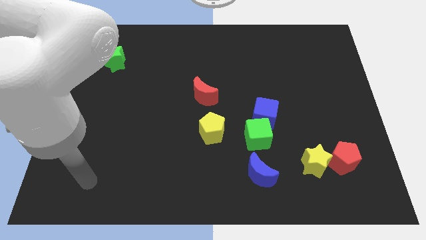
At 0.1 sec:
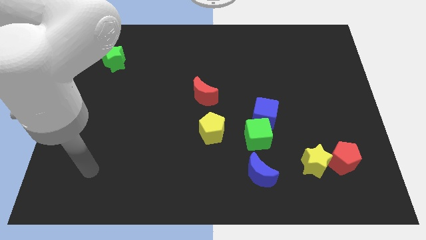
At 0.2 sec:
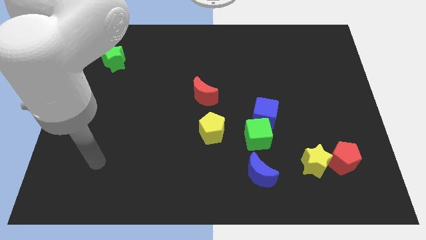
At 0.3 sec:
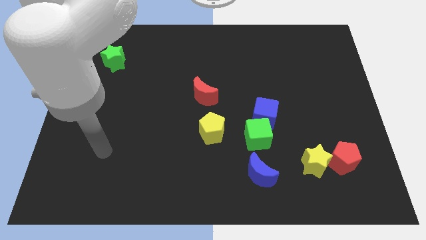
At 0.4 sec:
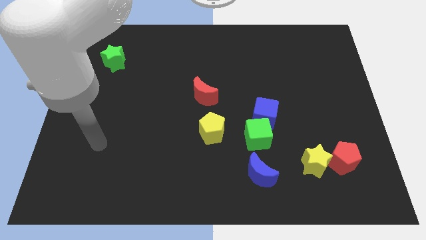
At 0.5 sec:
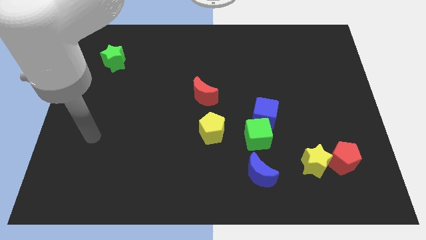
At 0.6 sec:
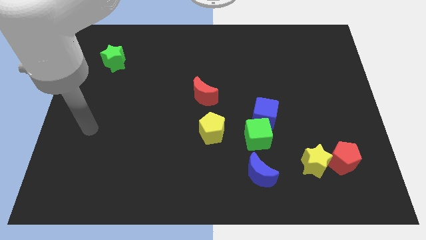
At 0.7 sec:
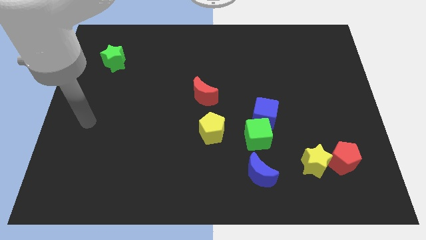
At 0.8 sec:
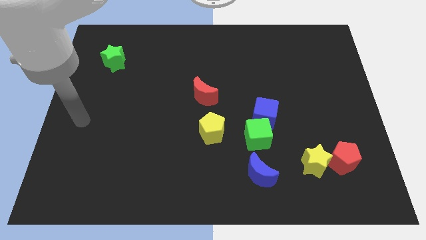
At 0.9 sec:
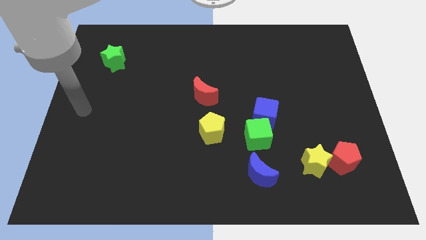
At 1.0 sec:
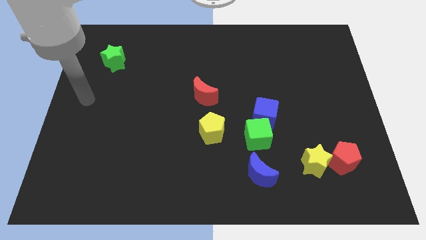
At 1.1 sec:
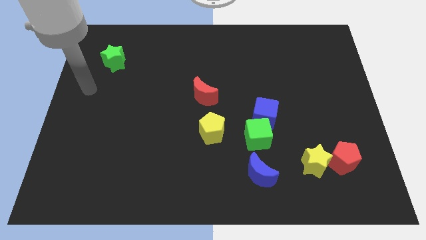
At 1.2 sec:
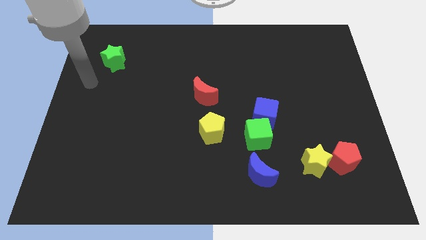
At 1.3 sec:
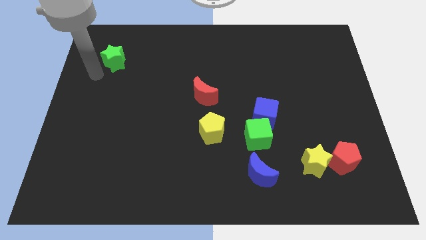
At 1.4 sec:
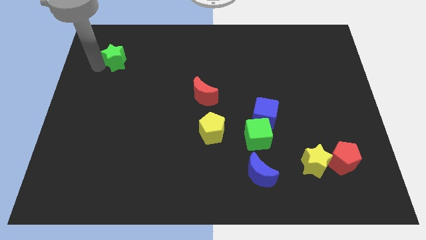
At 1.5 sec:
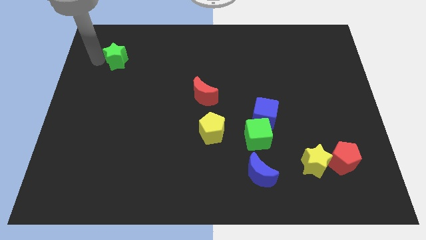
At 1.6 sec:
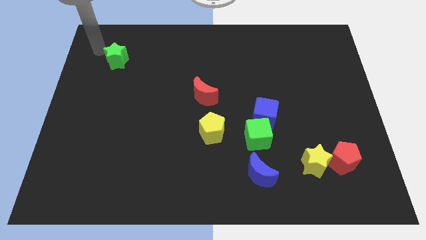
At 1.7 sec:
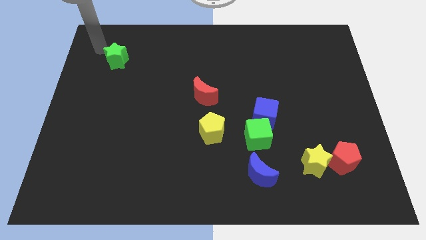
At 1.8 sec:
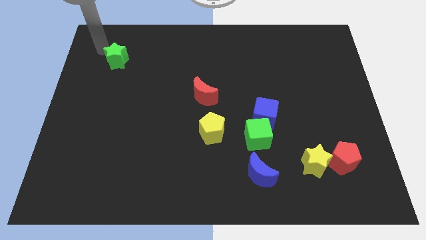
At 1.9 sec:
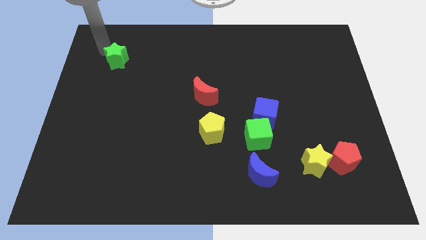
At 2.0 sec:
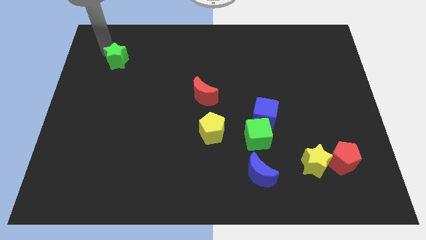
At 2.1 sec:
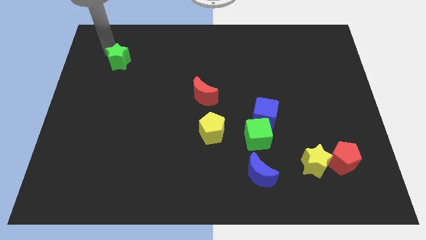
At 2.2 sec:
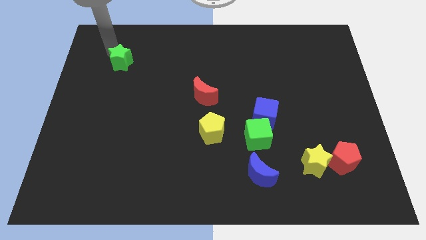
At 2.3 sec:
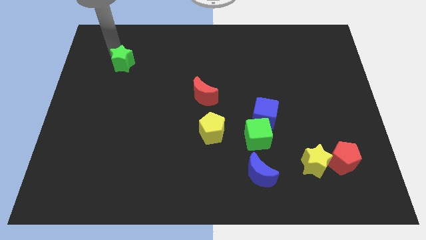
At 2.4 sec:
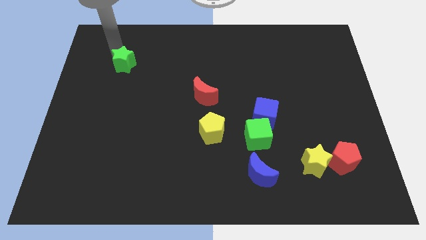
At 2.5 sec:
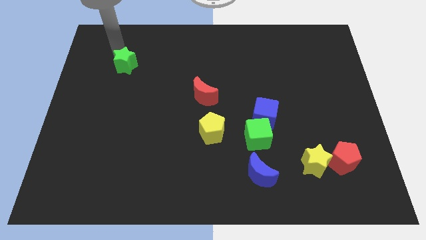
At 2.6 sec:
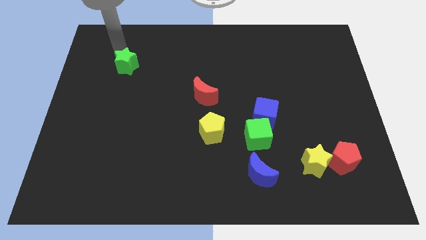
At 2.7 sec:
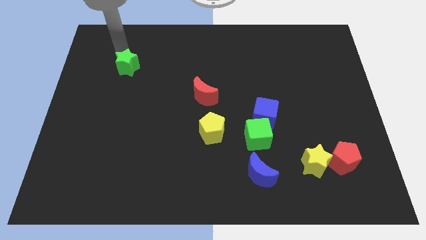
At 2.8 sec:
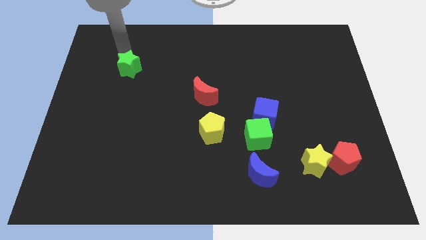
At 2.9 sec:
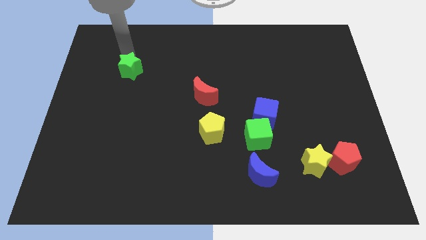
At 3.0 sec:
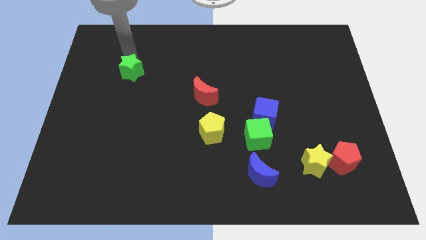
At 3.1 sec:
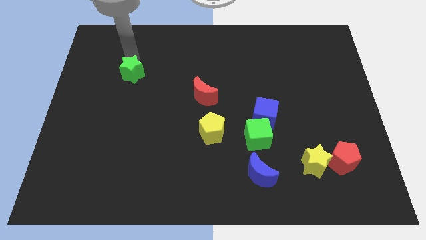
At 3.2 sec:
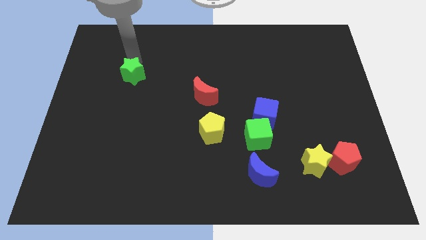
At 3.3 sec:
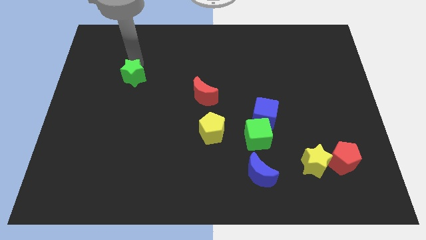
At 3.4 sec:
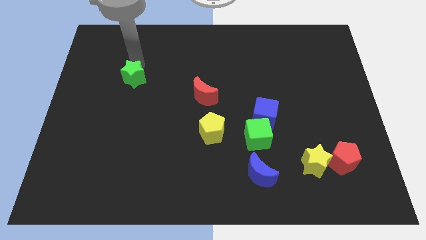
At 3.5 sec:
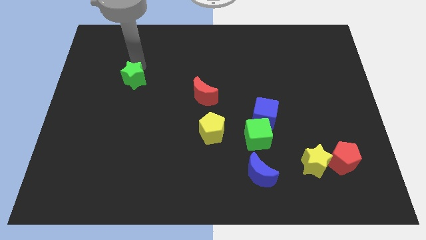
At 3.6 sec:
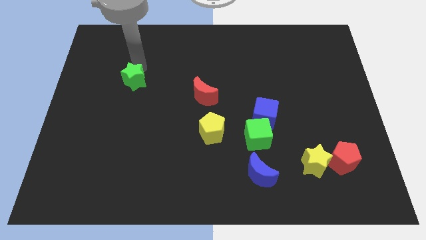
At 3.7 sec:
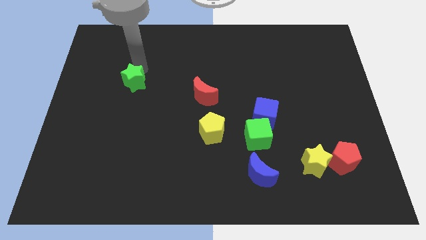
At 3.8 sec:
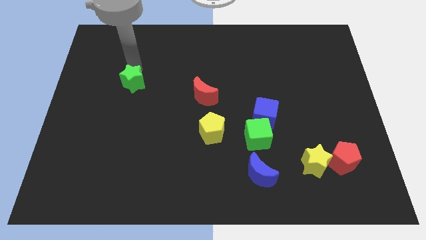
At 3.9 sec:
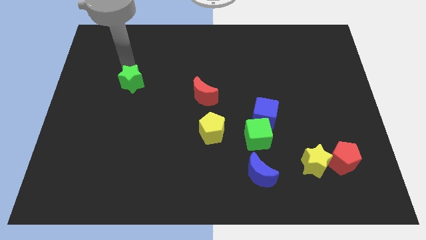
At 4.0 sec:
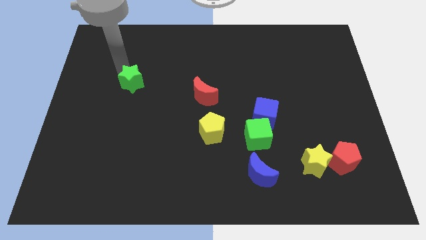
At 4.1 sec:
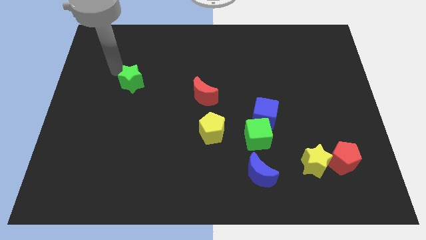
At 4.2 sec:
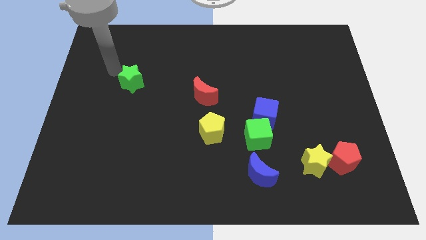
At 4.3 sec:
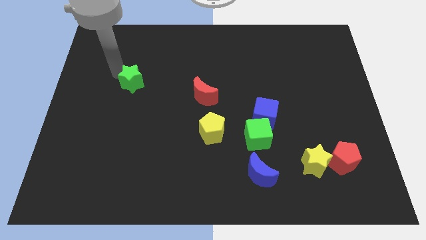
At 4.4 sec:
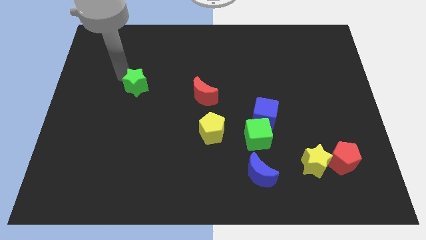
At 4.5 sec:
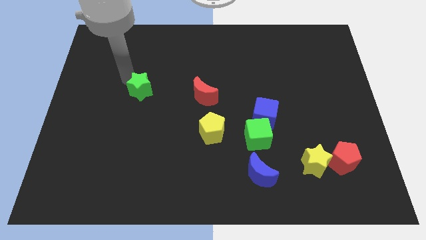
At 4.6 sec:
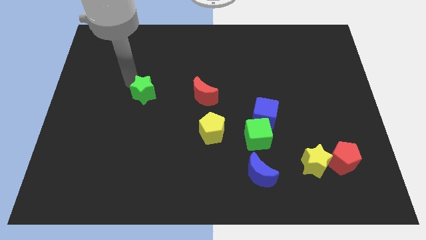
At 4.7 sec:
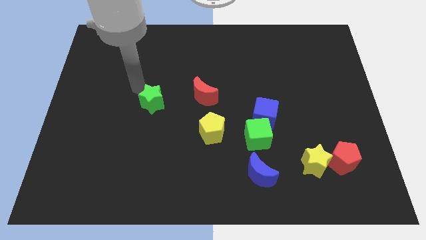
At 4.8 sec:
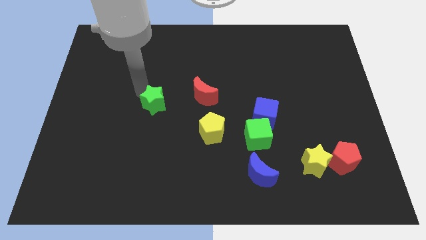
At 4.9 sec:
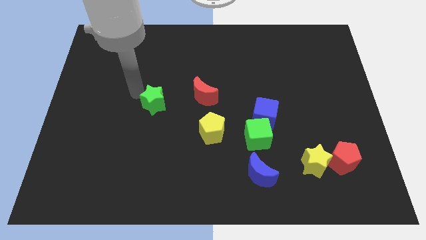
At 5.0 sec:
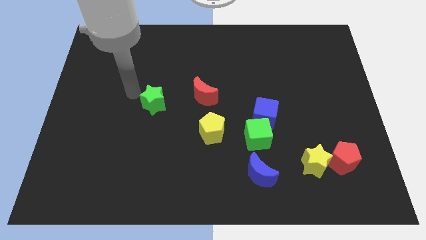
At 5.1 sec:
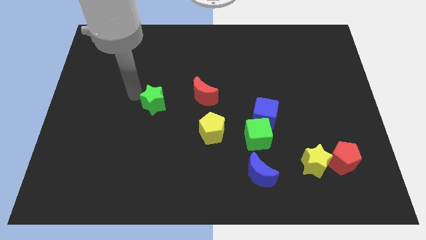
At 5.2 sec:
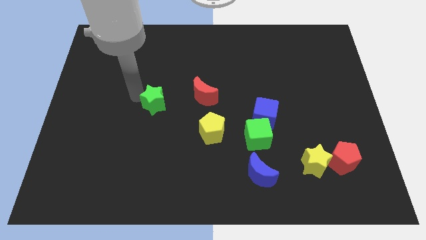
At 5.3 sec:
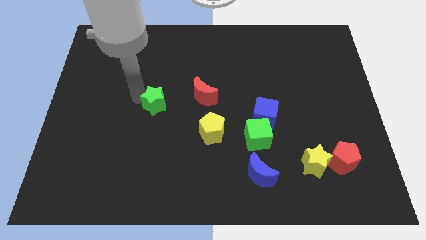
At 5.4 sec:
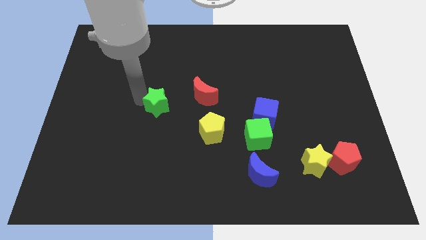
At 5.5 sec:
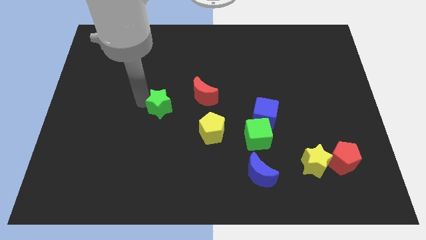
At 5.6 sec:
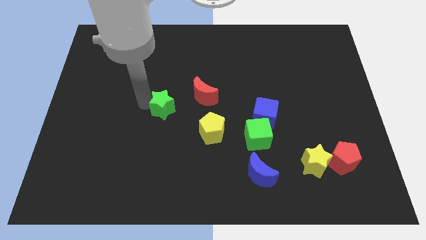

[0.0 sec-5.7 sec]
move the green star to the bottom left side of the red moon

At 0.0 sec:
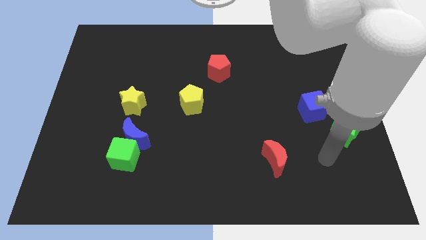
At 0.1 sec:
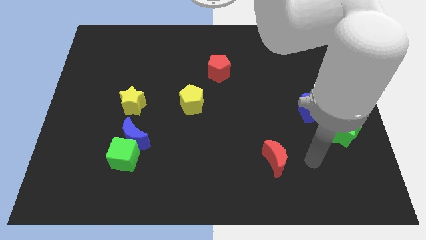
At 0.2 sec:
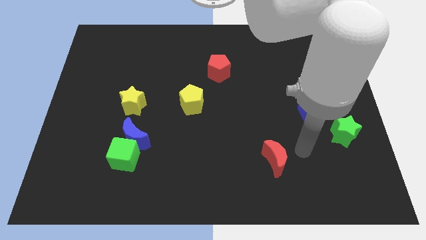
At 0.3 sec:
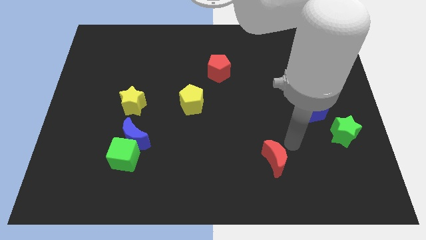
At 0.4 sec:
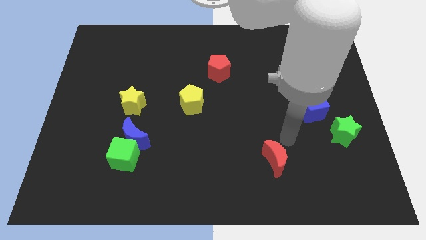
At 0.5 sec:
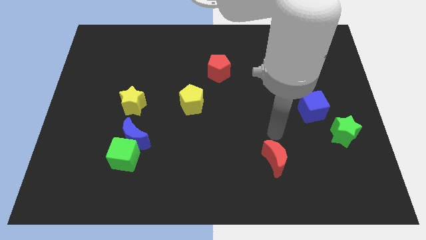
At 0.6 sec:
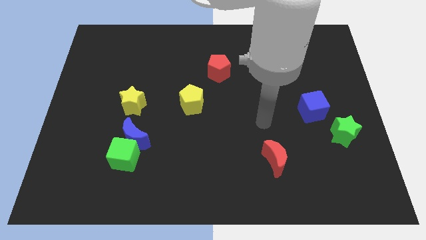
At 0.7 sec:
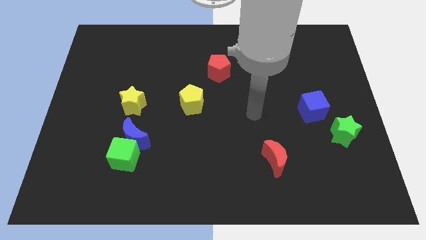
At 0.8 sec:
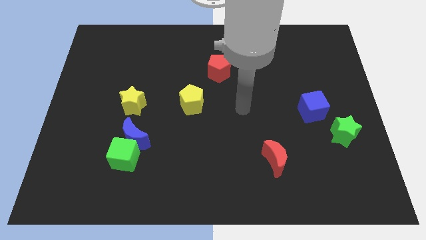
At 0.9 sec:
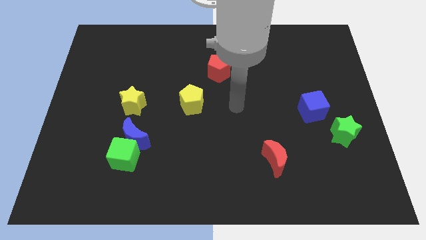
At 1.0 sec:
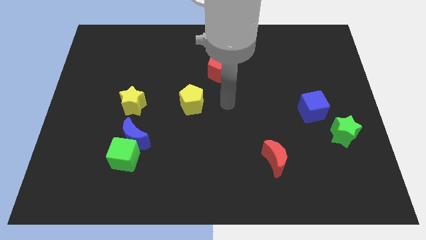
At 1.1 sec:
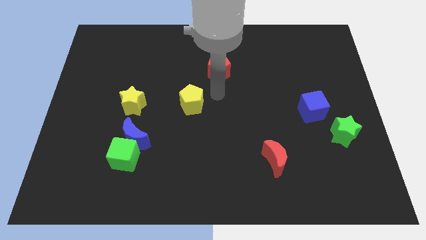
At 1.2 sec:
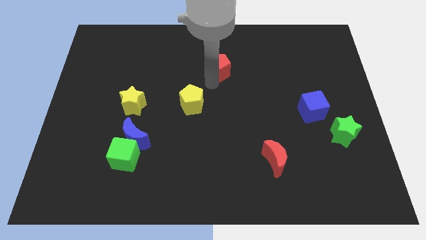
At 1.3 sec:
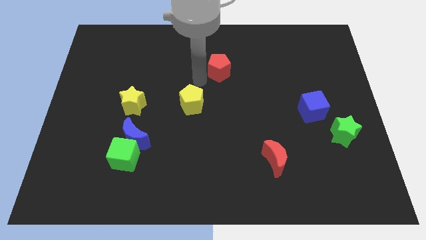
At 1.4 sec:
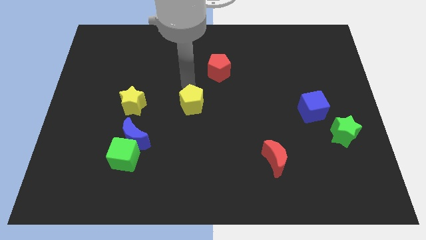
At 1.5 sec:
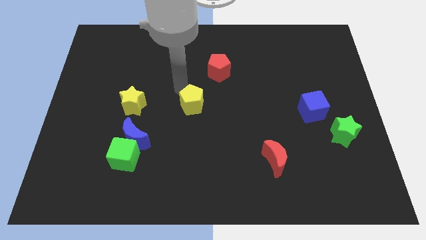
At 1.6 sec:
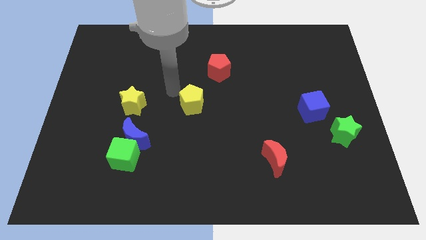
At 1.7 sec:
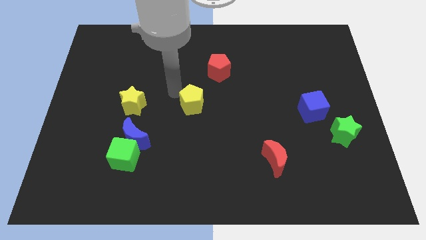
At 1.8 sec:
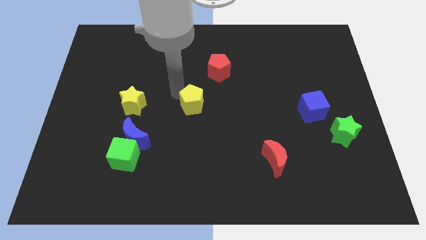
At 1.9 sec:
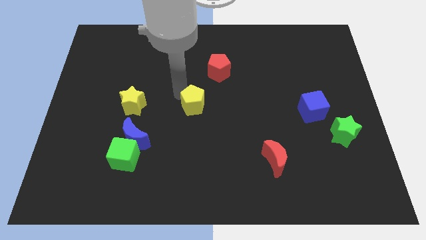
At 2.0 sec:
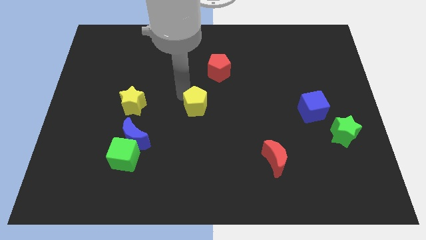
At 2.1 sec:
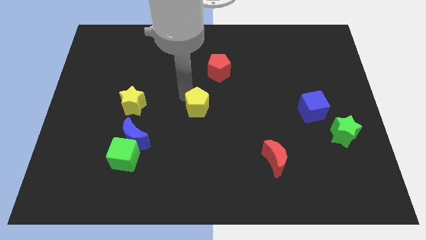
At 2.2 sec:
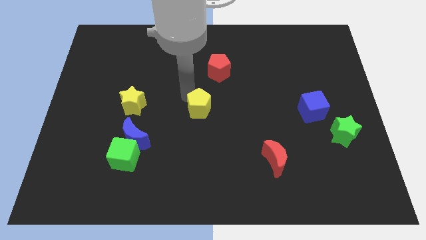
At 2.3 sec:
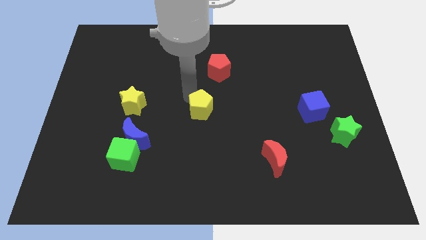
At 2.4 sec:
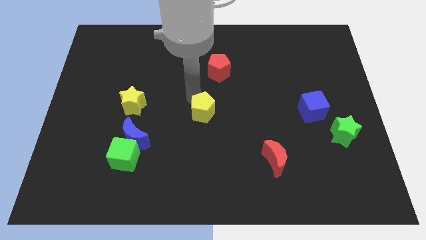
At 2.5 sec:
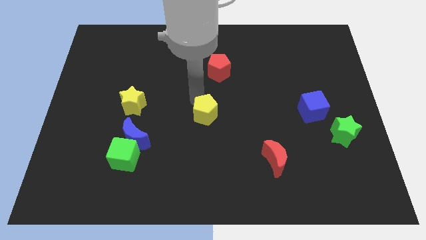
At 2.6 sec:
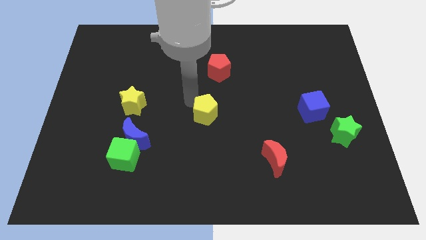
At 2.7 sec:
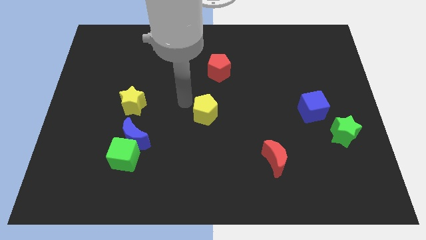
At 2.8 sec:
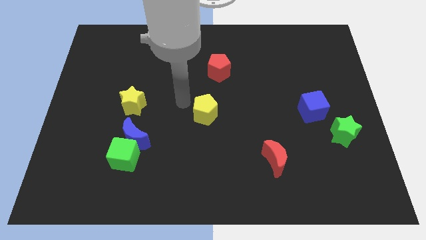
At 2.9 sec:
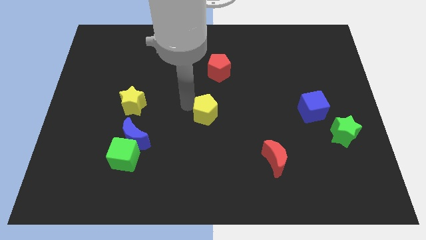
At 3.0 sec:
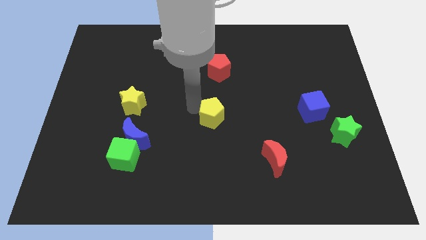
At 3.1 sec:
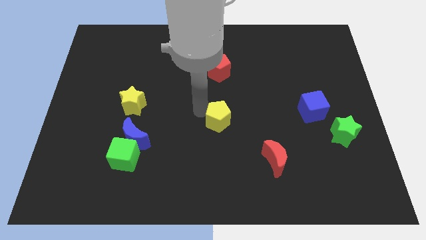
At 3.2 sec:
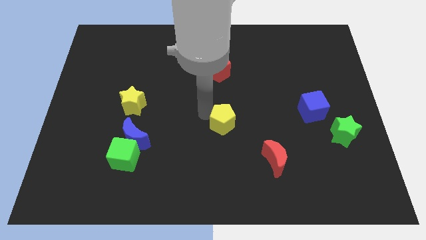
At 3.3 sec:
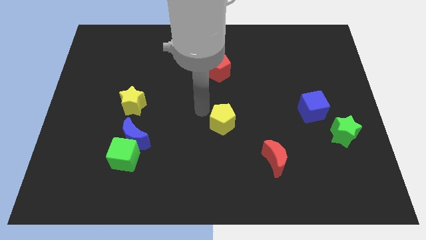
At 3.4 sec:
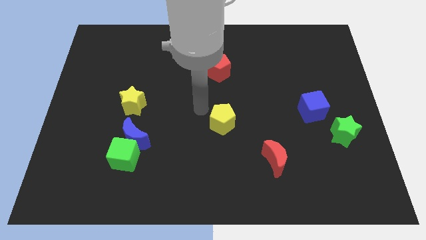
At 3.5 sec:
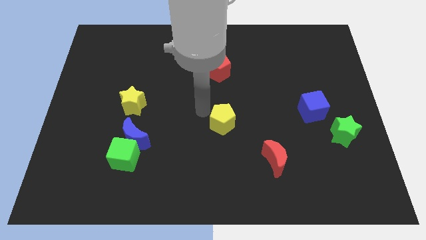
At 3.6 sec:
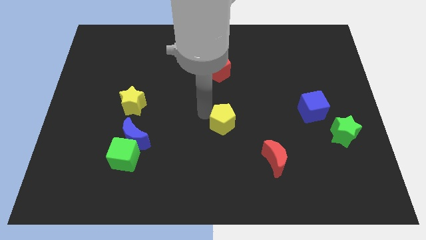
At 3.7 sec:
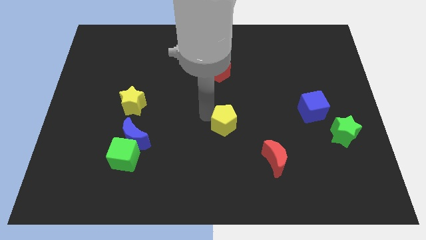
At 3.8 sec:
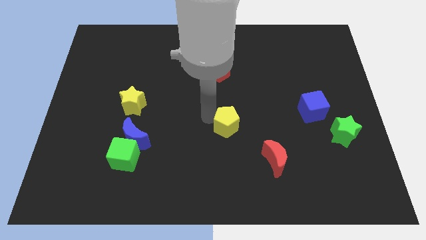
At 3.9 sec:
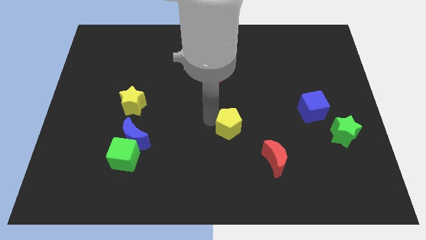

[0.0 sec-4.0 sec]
slide the yellow pentagon diagonally up and to the left of the red moon
